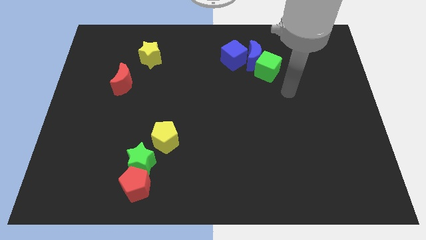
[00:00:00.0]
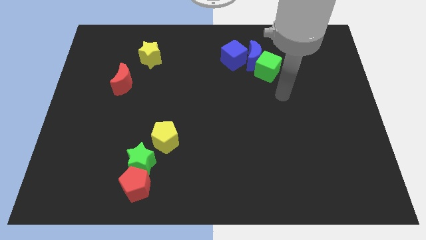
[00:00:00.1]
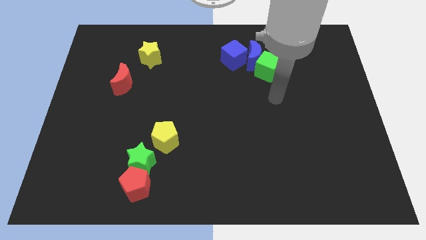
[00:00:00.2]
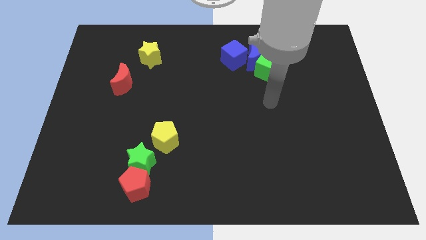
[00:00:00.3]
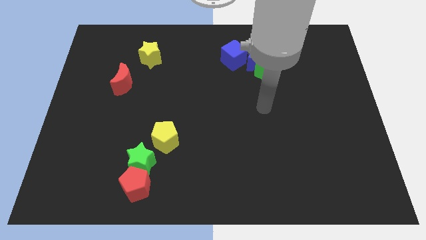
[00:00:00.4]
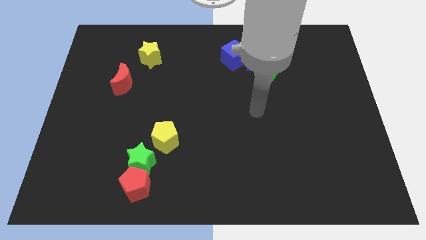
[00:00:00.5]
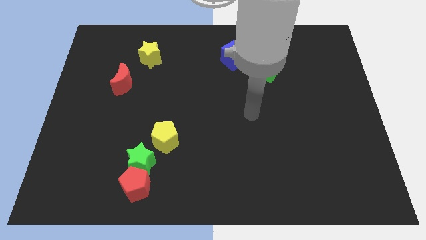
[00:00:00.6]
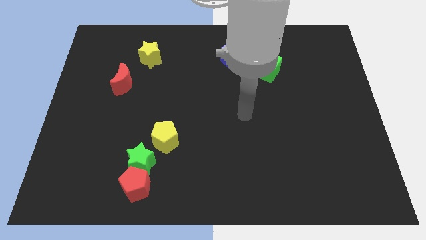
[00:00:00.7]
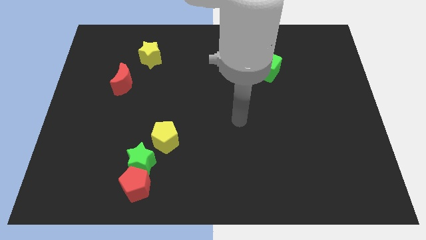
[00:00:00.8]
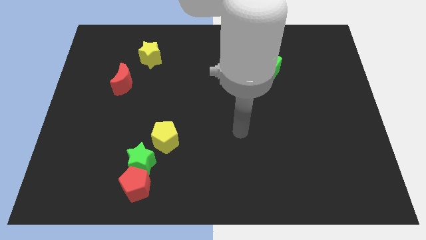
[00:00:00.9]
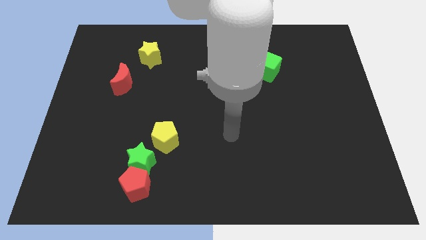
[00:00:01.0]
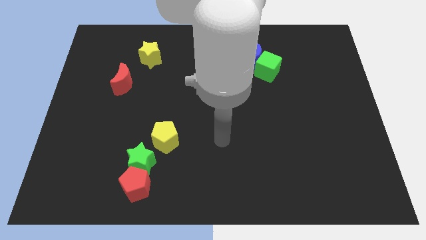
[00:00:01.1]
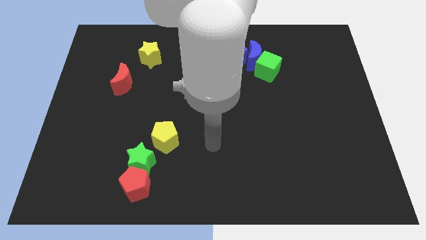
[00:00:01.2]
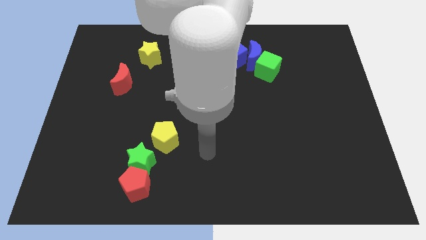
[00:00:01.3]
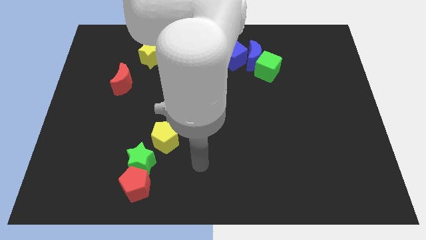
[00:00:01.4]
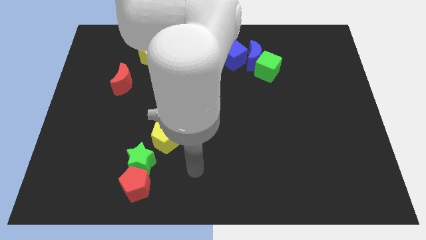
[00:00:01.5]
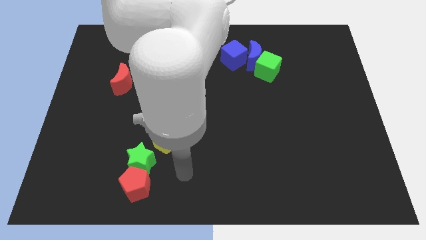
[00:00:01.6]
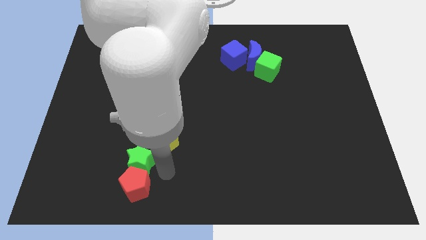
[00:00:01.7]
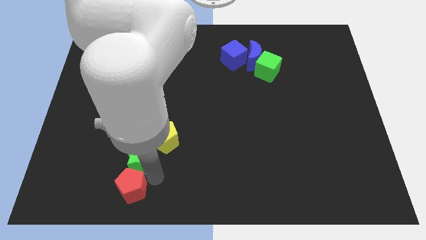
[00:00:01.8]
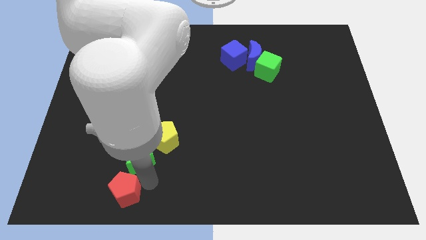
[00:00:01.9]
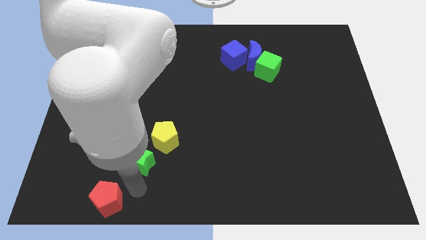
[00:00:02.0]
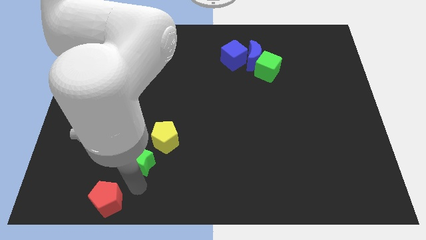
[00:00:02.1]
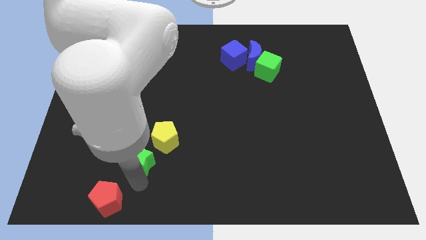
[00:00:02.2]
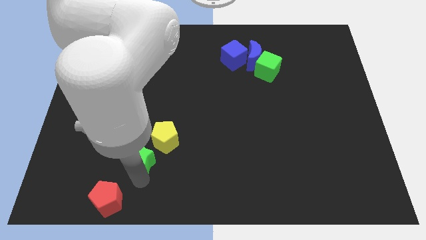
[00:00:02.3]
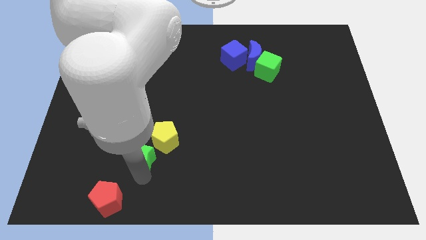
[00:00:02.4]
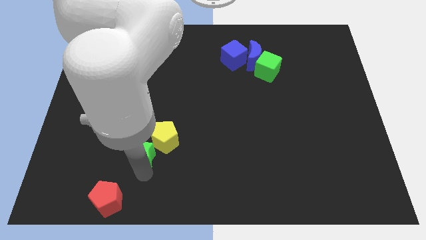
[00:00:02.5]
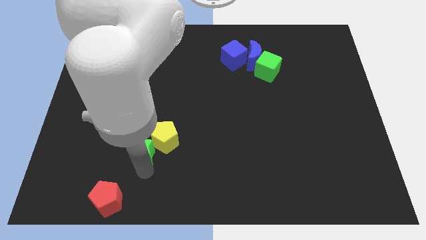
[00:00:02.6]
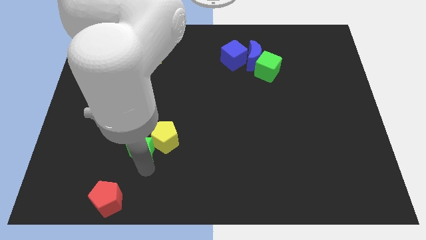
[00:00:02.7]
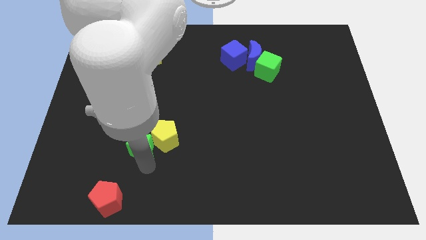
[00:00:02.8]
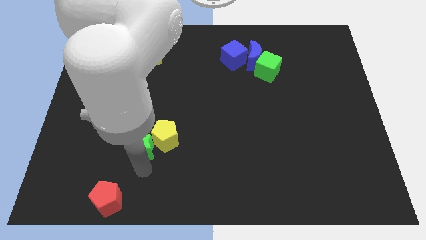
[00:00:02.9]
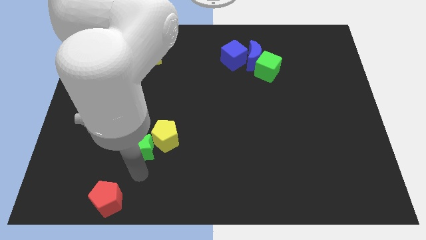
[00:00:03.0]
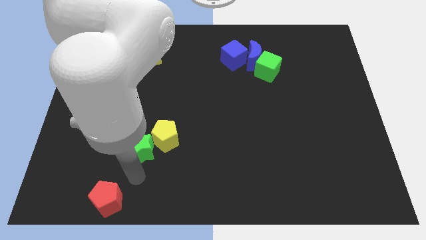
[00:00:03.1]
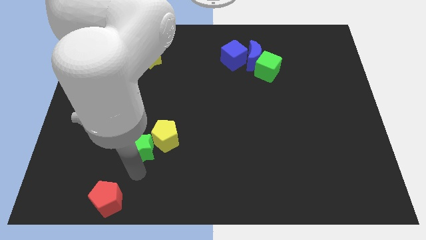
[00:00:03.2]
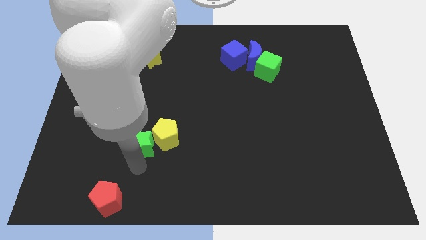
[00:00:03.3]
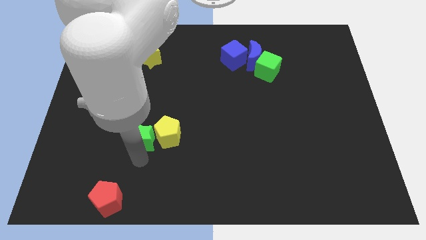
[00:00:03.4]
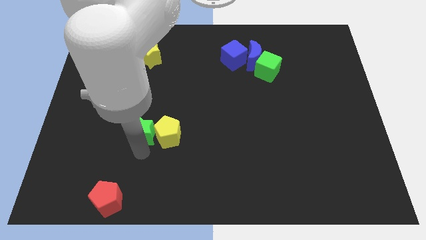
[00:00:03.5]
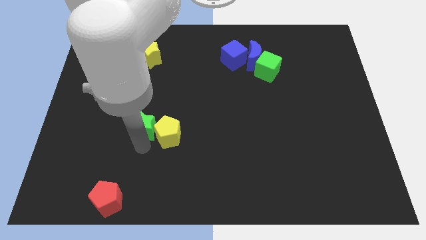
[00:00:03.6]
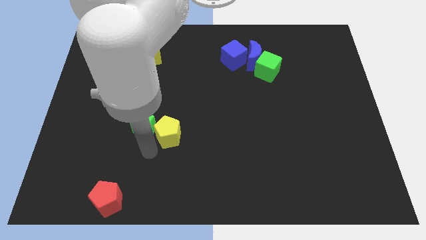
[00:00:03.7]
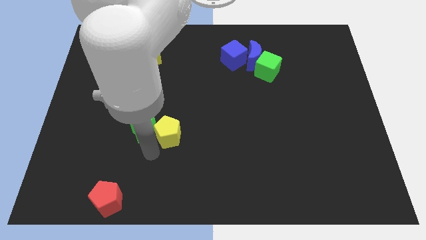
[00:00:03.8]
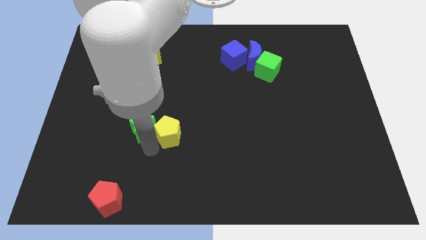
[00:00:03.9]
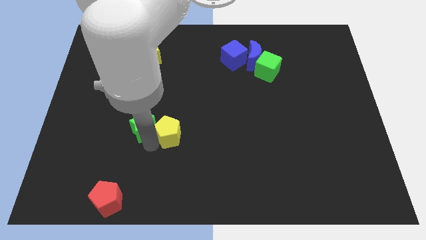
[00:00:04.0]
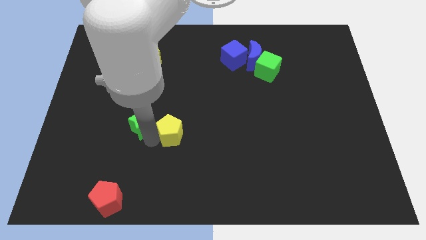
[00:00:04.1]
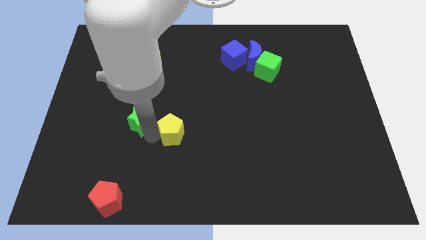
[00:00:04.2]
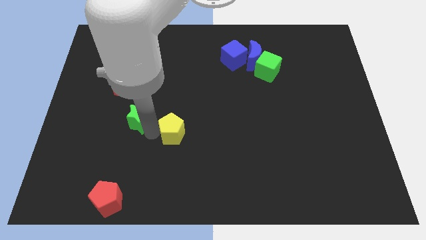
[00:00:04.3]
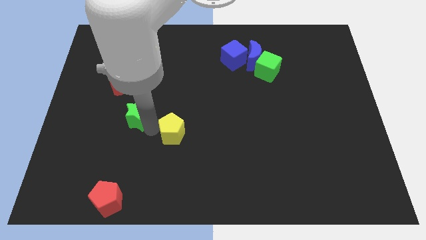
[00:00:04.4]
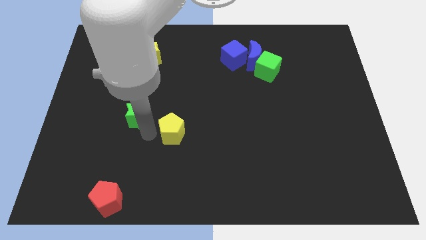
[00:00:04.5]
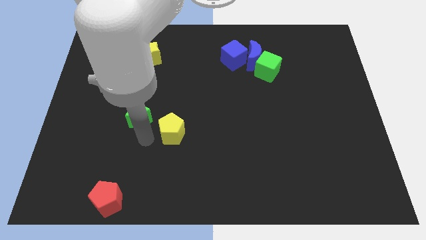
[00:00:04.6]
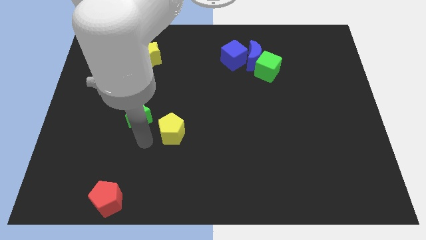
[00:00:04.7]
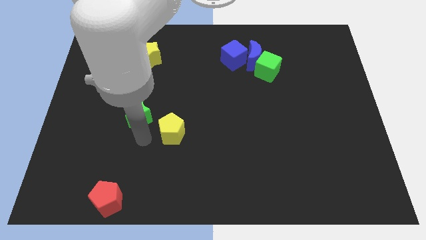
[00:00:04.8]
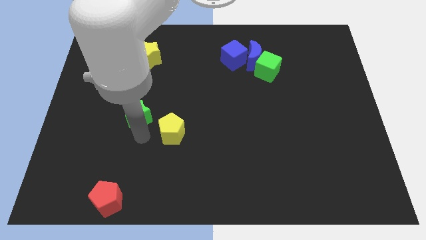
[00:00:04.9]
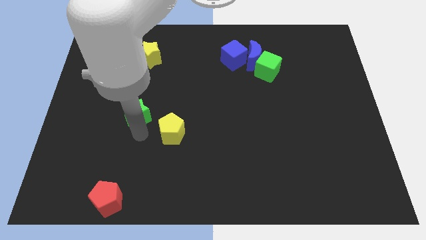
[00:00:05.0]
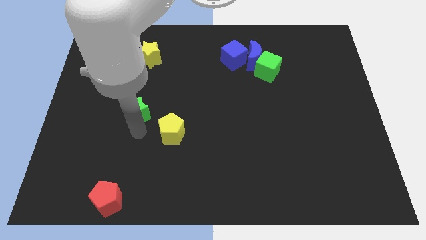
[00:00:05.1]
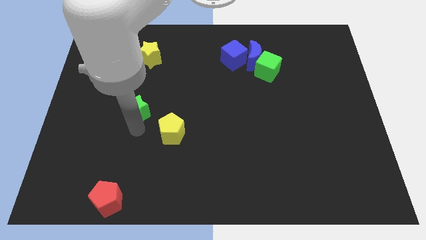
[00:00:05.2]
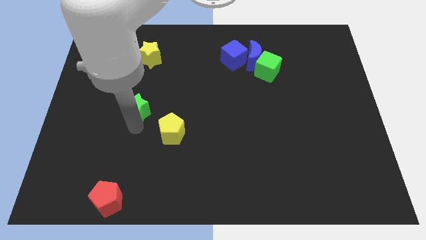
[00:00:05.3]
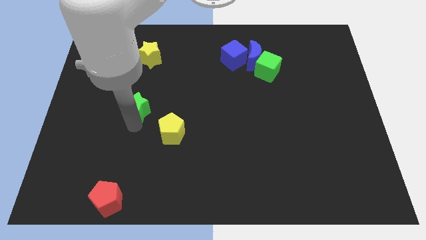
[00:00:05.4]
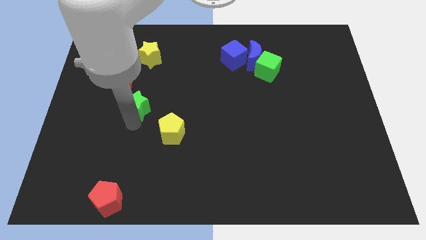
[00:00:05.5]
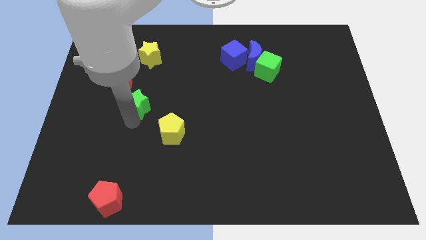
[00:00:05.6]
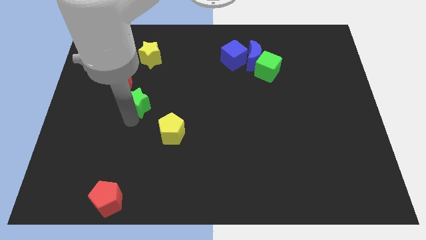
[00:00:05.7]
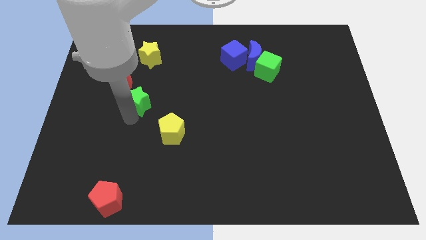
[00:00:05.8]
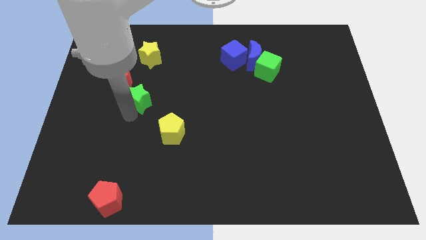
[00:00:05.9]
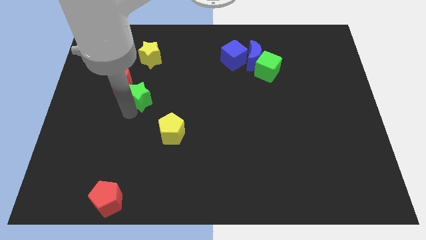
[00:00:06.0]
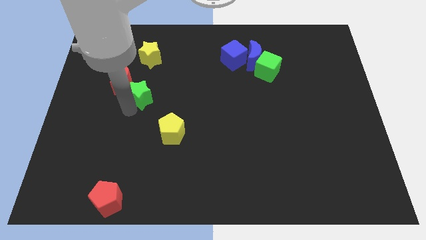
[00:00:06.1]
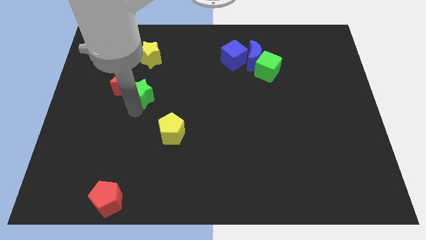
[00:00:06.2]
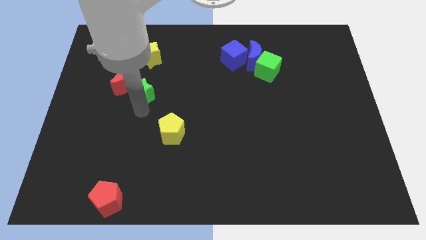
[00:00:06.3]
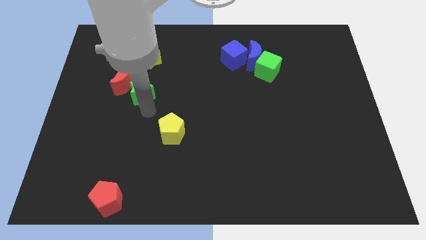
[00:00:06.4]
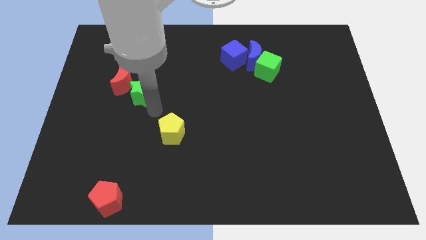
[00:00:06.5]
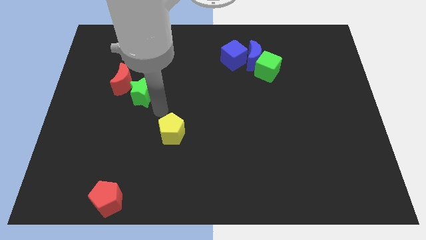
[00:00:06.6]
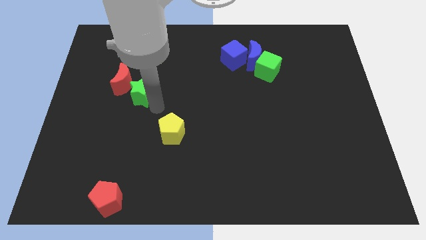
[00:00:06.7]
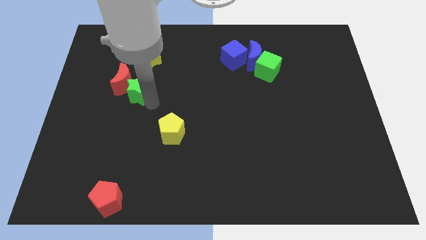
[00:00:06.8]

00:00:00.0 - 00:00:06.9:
slide the green star next to the red moon

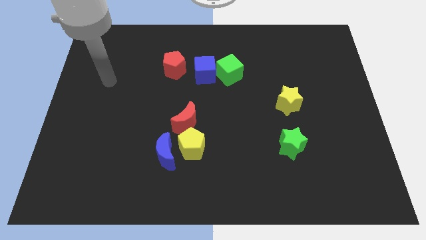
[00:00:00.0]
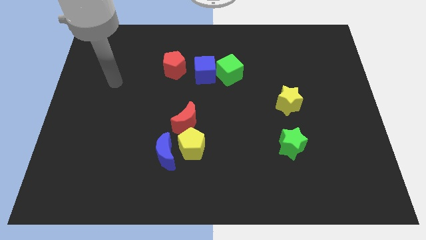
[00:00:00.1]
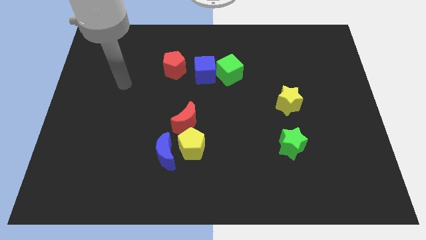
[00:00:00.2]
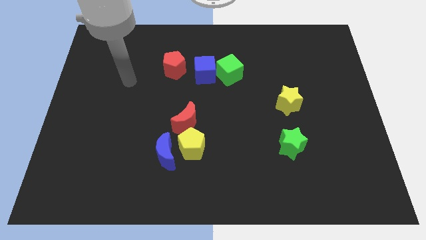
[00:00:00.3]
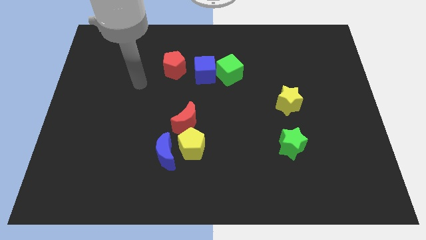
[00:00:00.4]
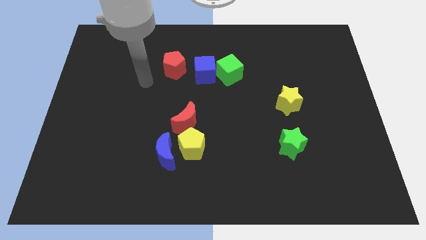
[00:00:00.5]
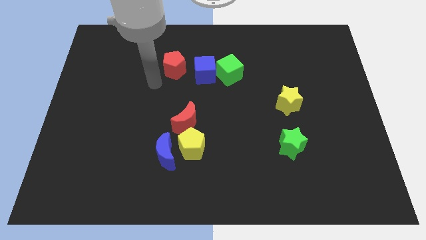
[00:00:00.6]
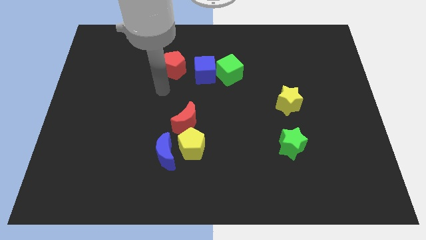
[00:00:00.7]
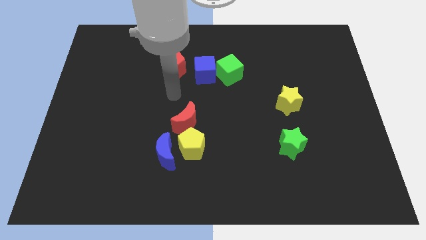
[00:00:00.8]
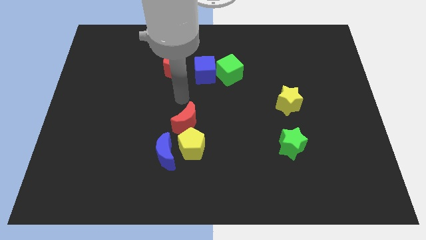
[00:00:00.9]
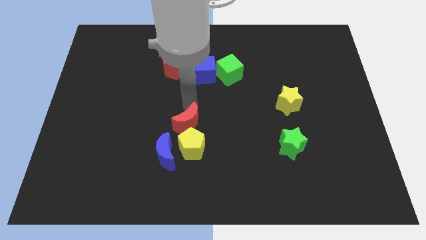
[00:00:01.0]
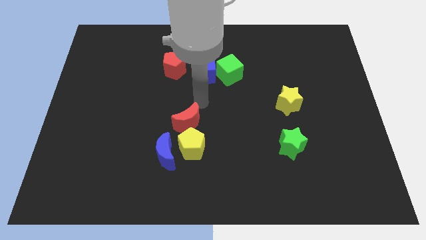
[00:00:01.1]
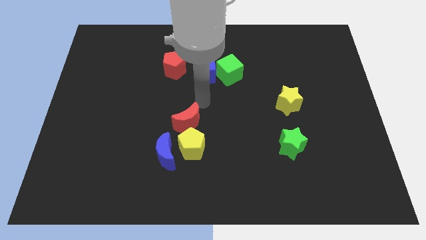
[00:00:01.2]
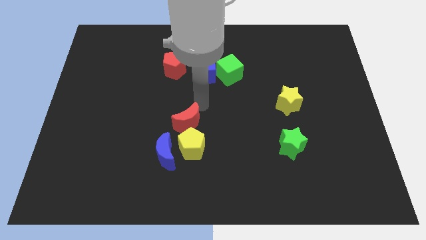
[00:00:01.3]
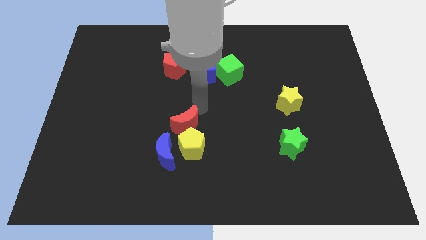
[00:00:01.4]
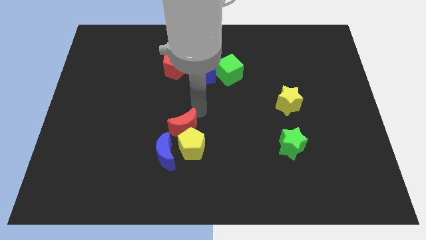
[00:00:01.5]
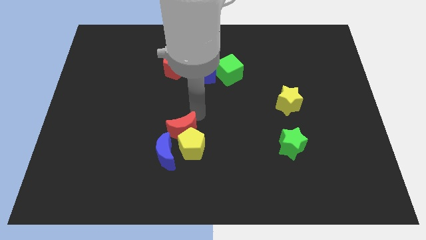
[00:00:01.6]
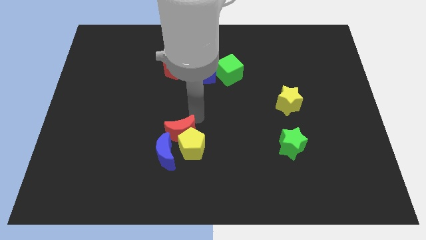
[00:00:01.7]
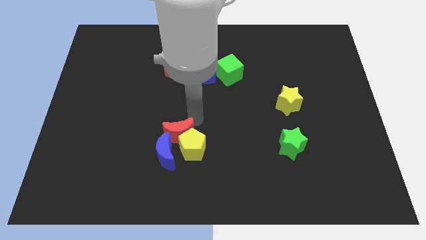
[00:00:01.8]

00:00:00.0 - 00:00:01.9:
put the red moon to the blue moon

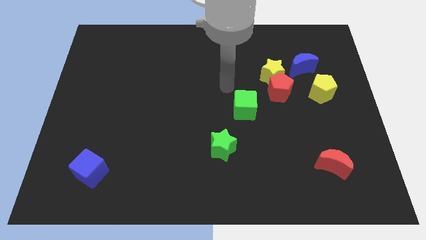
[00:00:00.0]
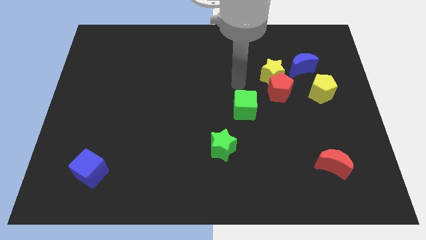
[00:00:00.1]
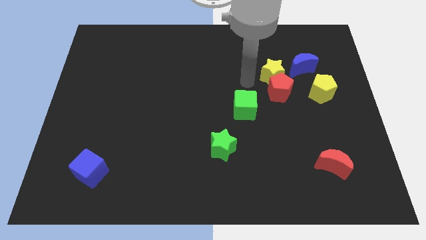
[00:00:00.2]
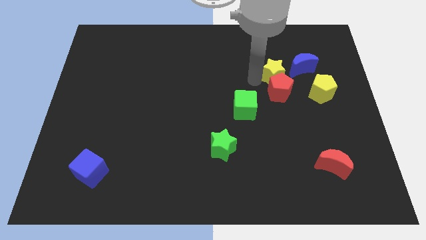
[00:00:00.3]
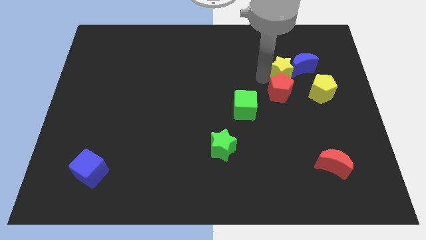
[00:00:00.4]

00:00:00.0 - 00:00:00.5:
move the yellow star close to the blue moon
